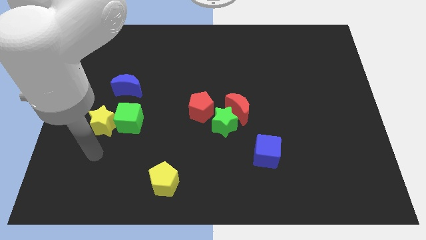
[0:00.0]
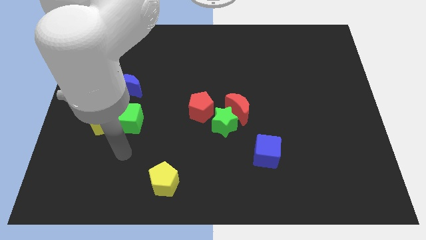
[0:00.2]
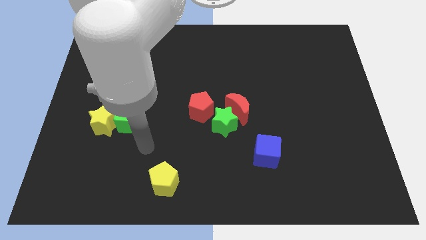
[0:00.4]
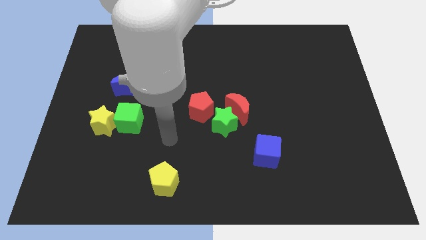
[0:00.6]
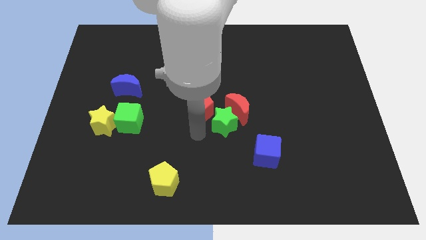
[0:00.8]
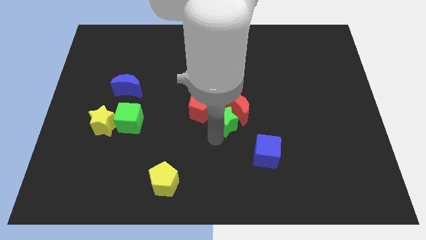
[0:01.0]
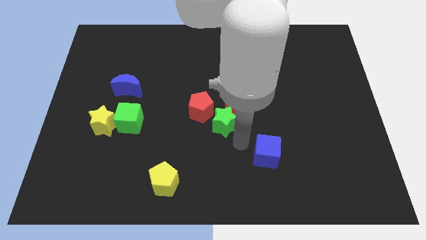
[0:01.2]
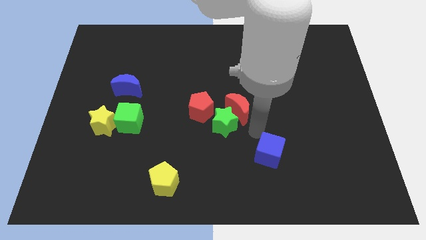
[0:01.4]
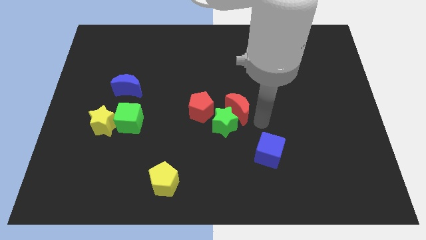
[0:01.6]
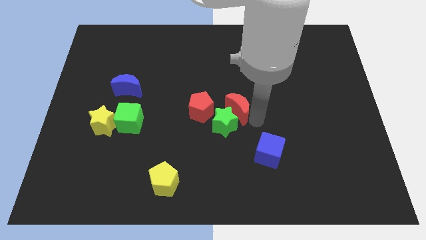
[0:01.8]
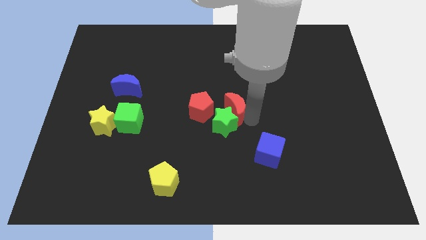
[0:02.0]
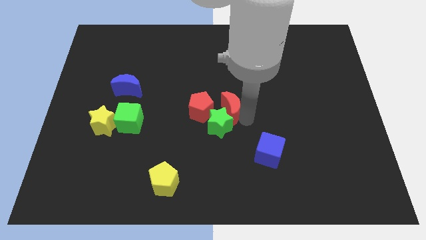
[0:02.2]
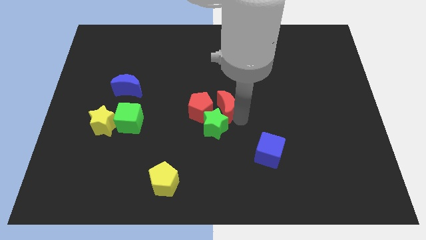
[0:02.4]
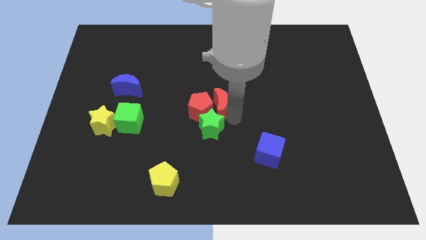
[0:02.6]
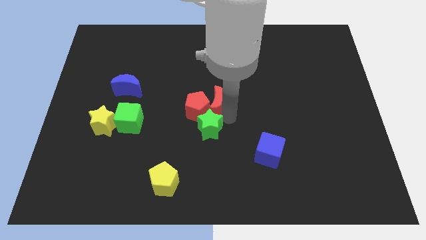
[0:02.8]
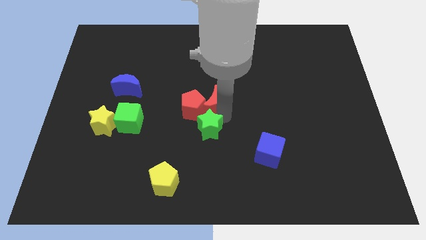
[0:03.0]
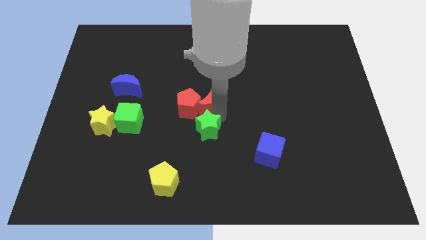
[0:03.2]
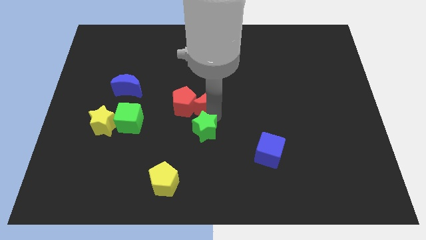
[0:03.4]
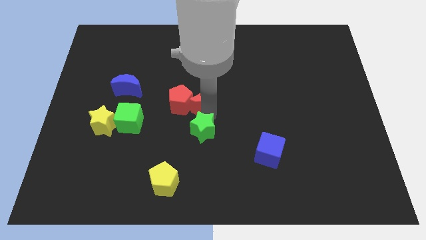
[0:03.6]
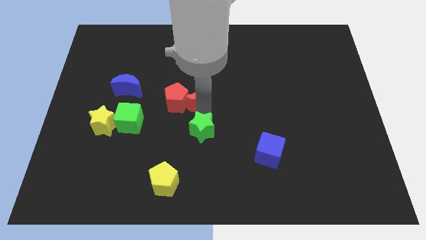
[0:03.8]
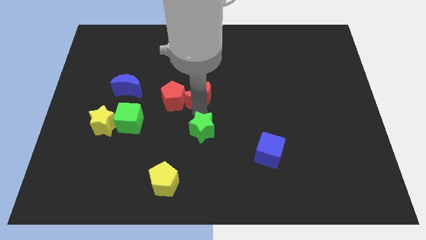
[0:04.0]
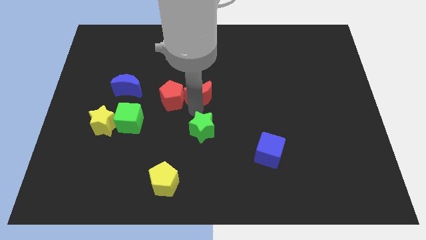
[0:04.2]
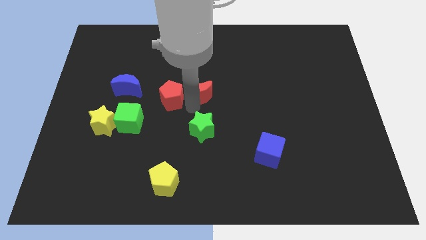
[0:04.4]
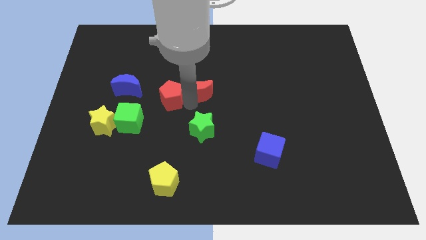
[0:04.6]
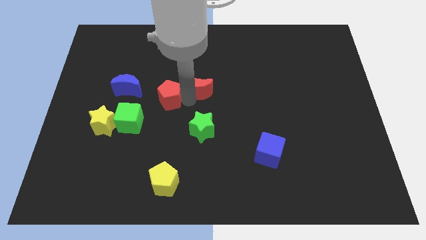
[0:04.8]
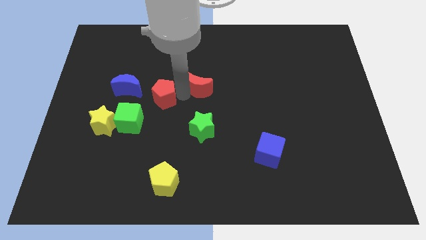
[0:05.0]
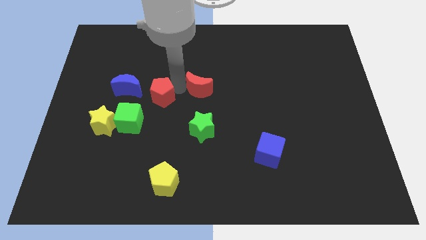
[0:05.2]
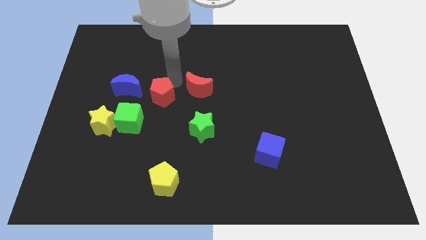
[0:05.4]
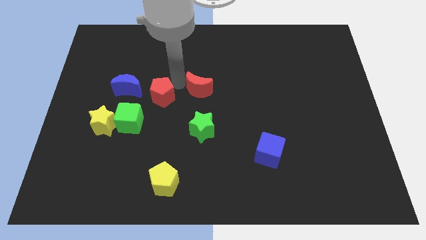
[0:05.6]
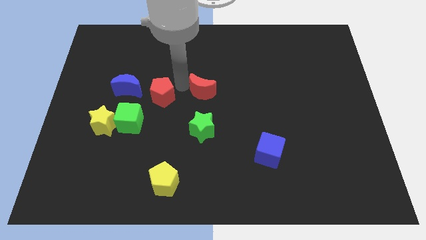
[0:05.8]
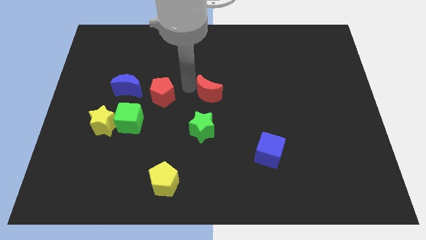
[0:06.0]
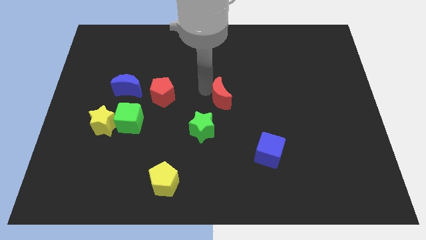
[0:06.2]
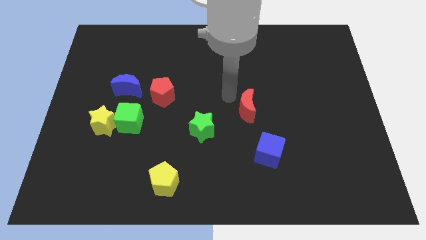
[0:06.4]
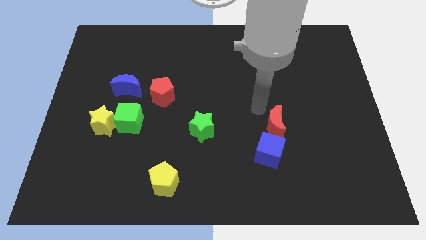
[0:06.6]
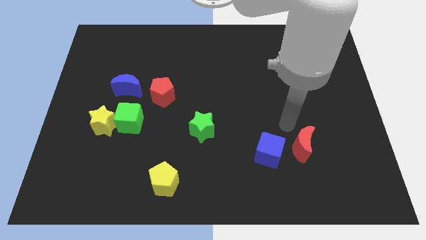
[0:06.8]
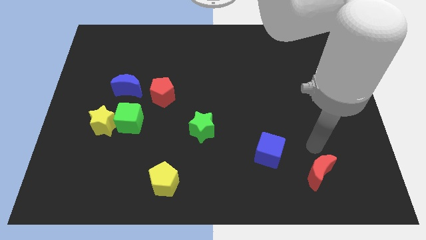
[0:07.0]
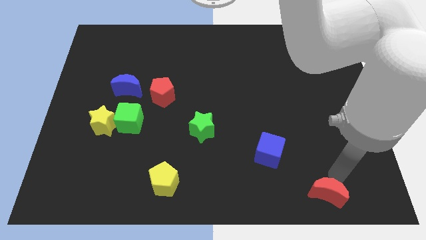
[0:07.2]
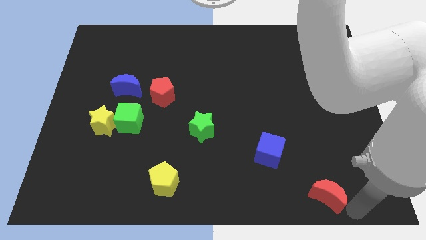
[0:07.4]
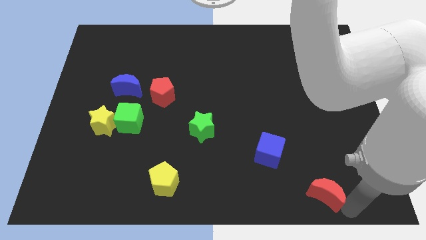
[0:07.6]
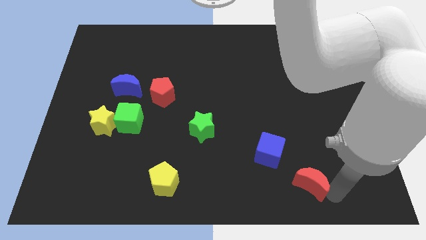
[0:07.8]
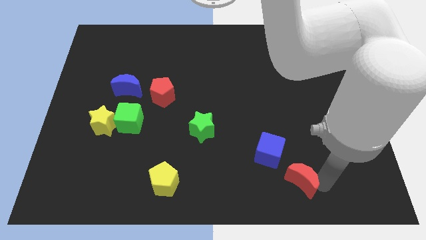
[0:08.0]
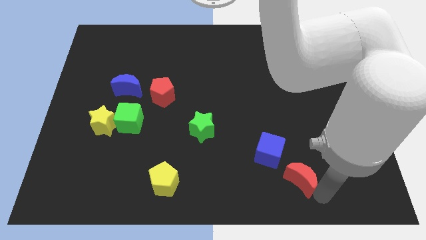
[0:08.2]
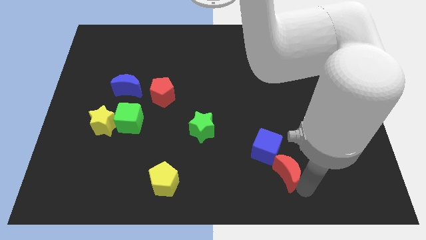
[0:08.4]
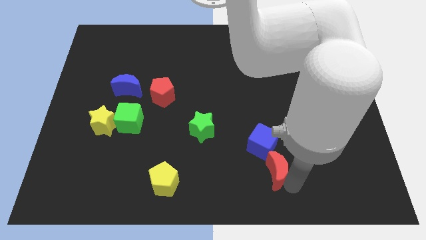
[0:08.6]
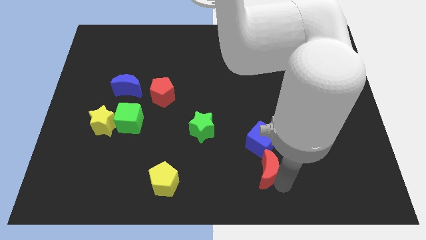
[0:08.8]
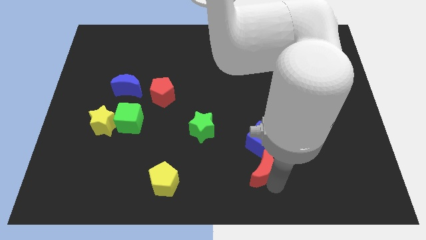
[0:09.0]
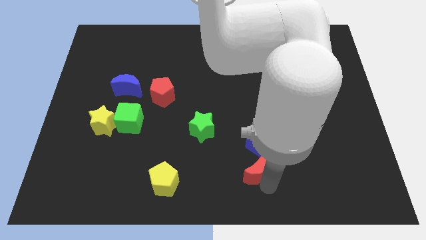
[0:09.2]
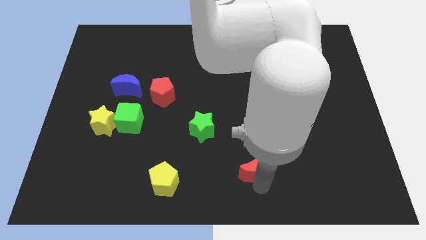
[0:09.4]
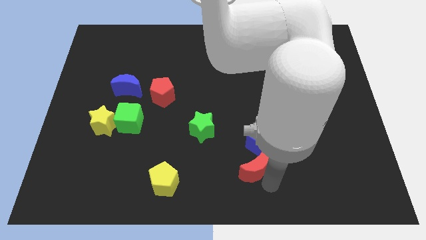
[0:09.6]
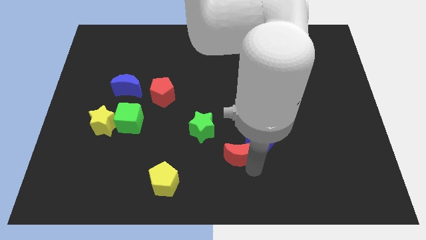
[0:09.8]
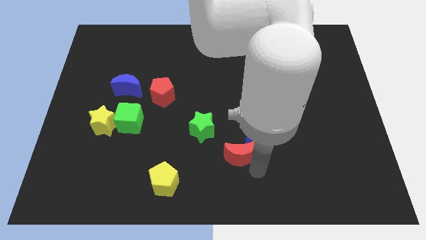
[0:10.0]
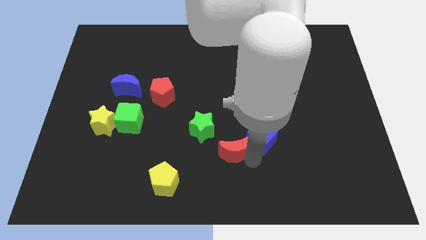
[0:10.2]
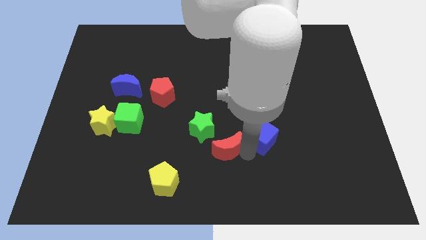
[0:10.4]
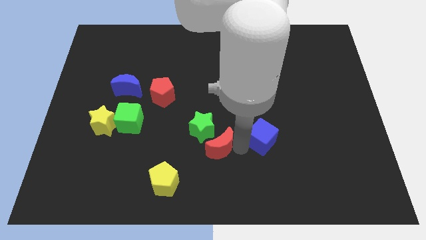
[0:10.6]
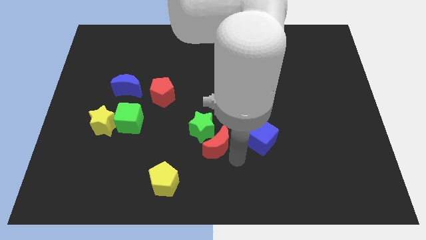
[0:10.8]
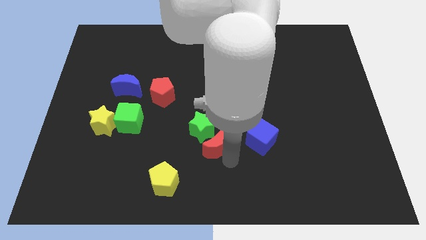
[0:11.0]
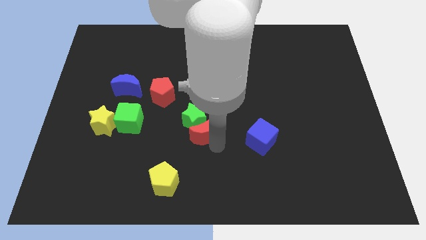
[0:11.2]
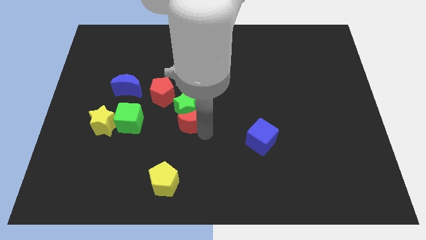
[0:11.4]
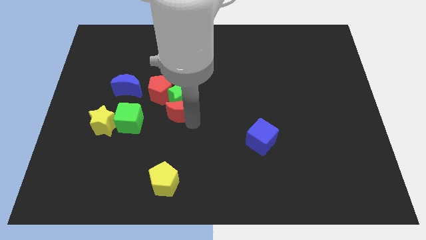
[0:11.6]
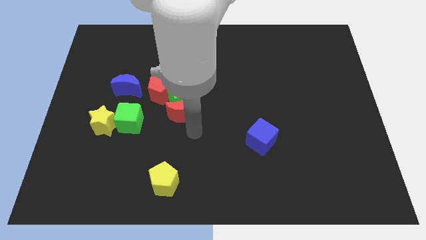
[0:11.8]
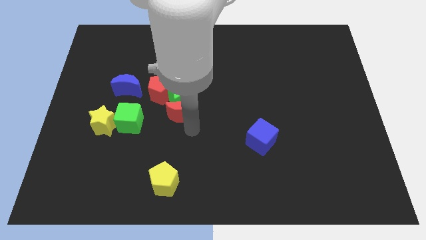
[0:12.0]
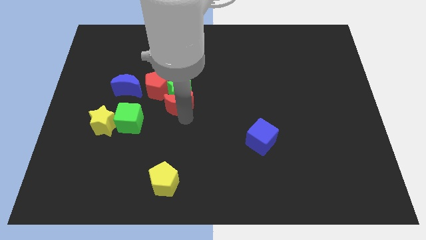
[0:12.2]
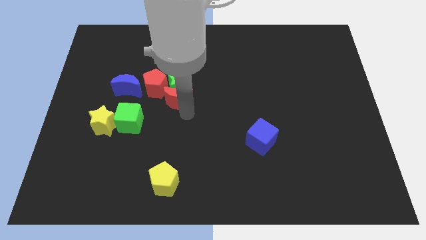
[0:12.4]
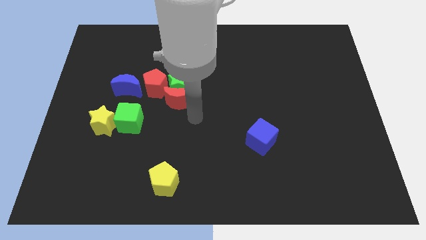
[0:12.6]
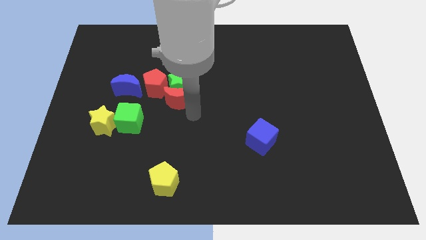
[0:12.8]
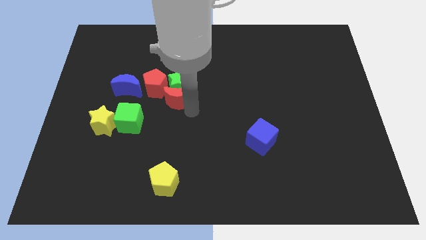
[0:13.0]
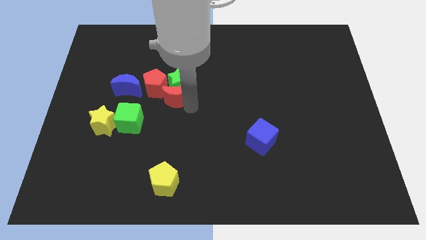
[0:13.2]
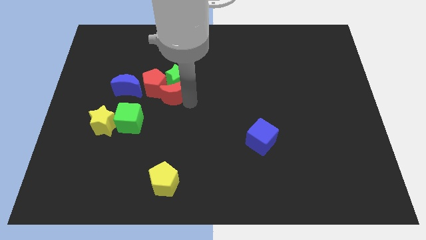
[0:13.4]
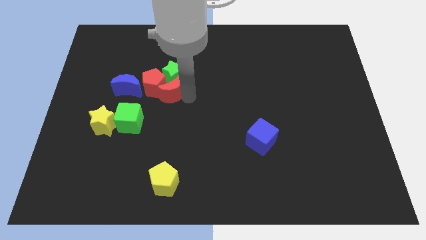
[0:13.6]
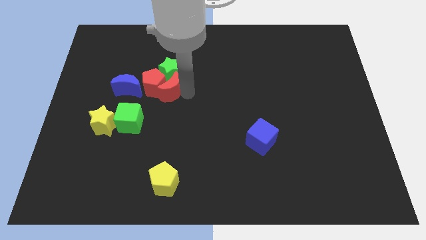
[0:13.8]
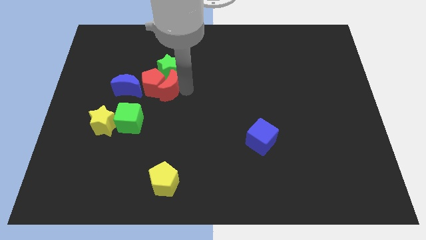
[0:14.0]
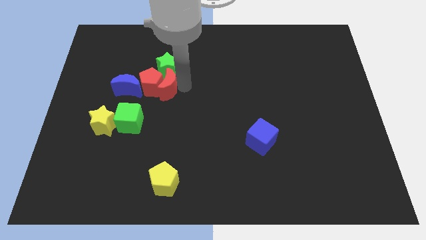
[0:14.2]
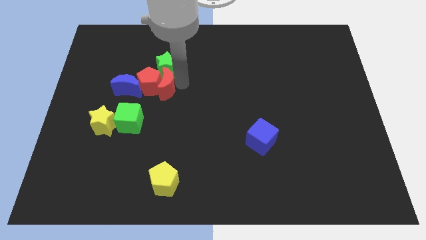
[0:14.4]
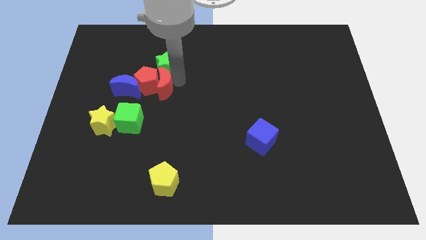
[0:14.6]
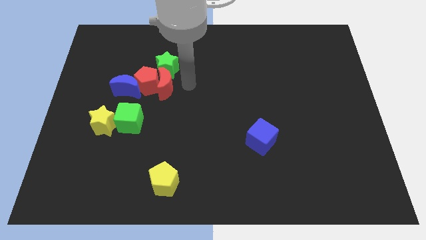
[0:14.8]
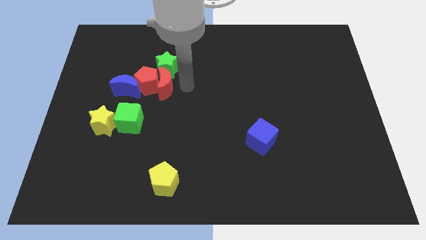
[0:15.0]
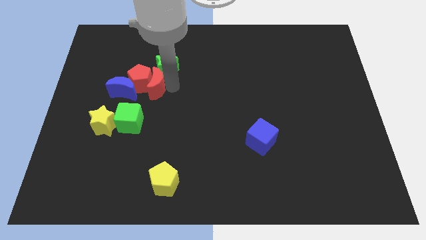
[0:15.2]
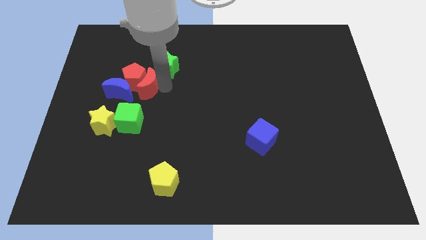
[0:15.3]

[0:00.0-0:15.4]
slide the red moon above the green cube

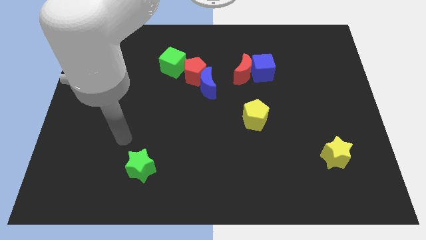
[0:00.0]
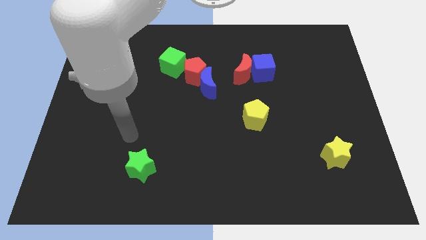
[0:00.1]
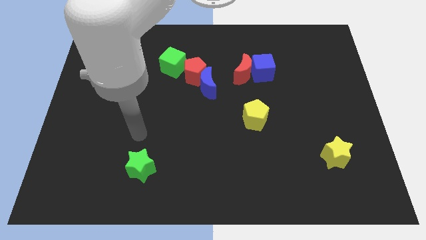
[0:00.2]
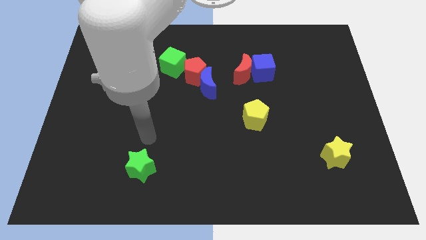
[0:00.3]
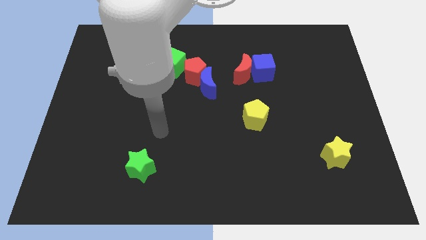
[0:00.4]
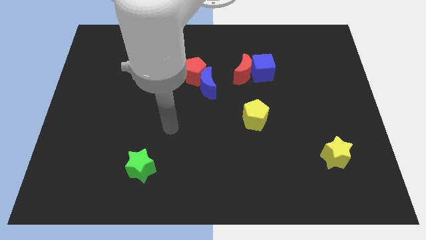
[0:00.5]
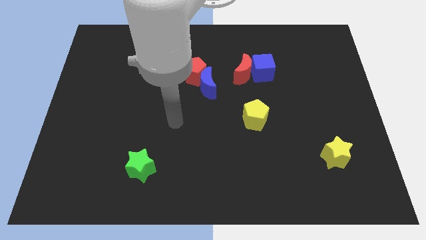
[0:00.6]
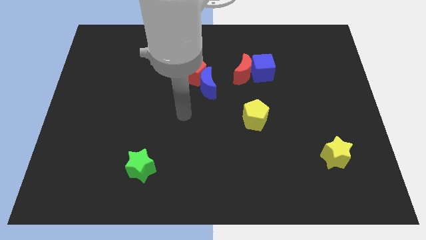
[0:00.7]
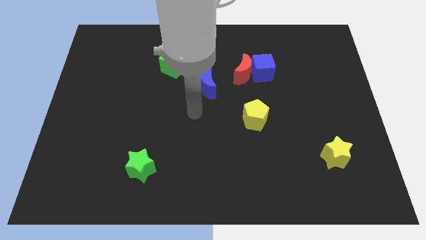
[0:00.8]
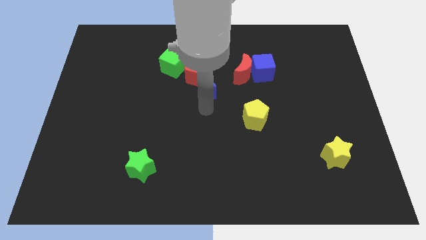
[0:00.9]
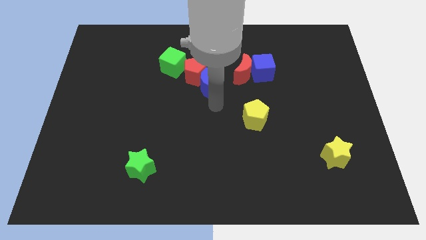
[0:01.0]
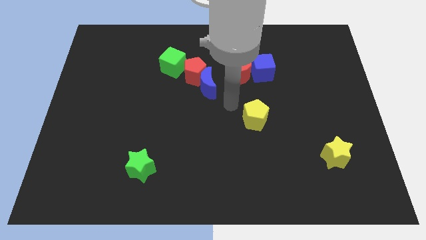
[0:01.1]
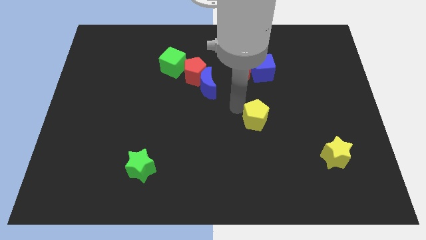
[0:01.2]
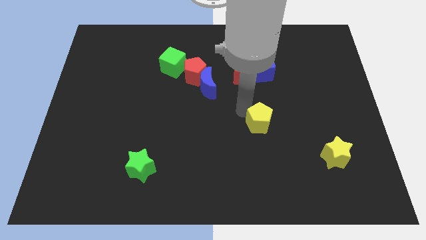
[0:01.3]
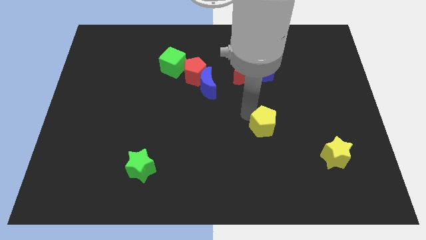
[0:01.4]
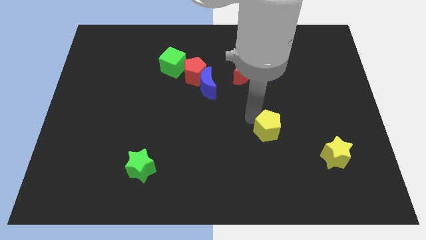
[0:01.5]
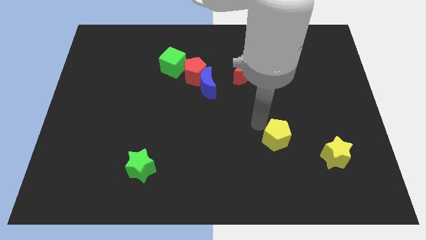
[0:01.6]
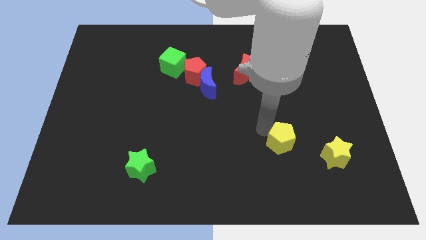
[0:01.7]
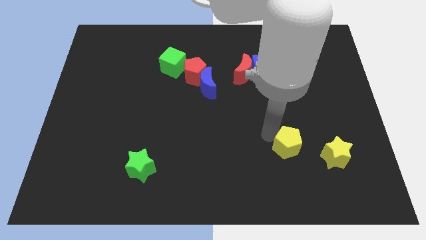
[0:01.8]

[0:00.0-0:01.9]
put the yellow pentagon to the top left of the yellow star
